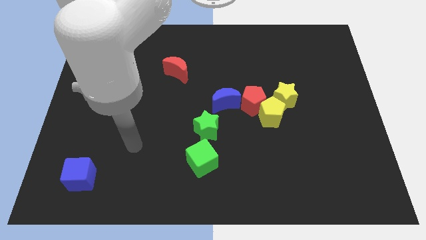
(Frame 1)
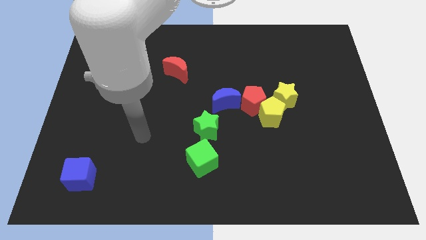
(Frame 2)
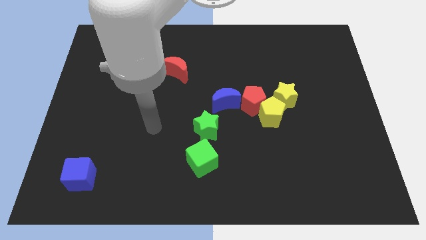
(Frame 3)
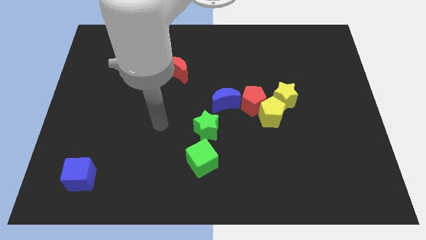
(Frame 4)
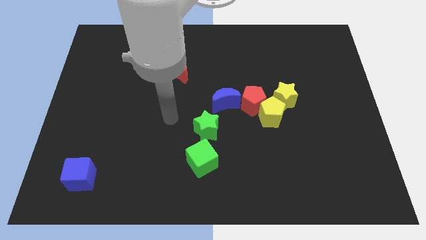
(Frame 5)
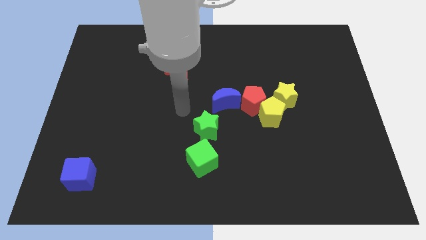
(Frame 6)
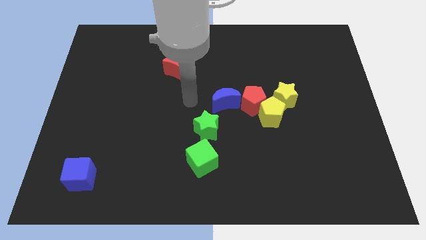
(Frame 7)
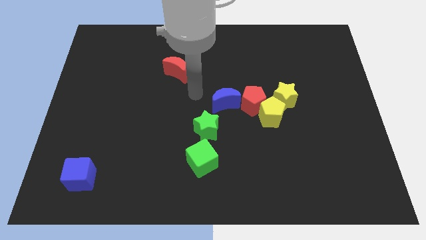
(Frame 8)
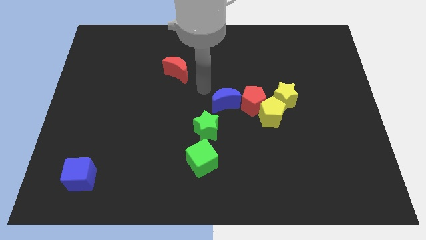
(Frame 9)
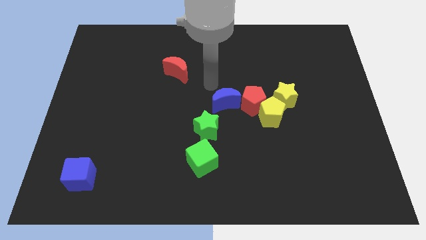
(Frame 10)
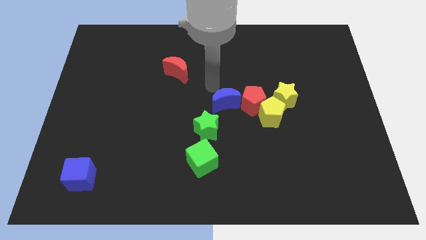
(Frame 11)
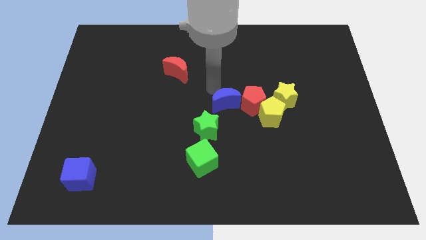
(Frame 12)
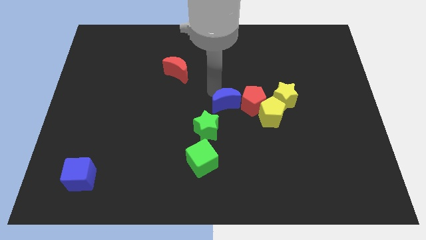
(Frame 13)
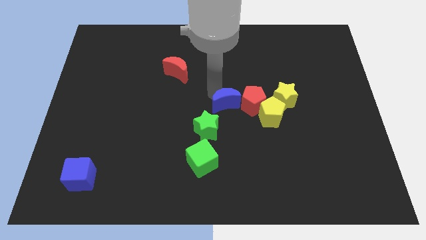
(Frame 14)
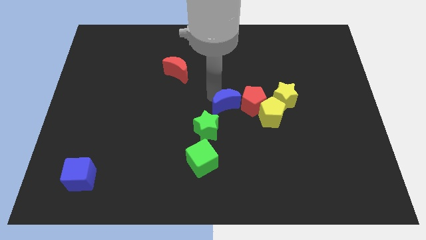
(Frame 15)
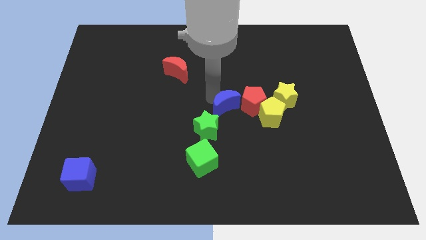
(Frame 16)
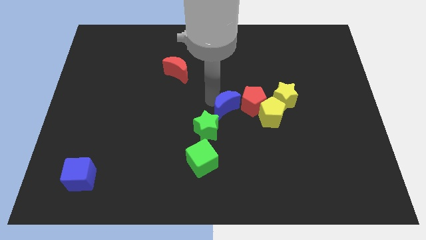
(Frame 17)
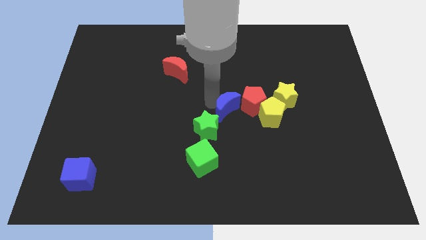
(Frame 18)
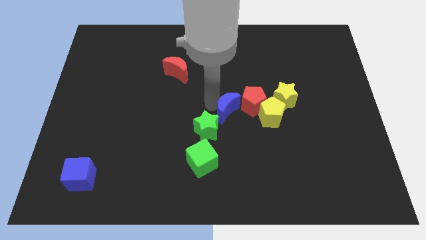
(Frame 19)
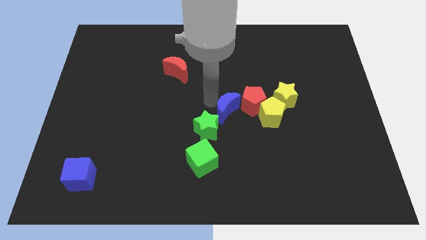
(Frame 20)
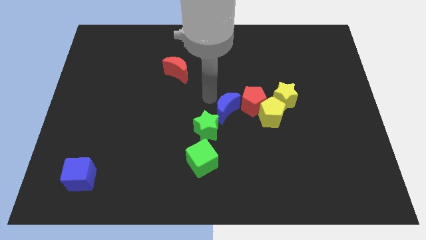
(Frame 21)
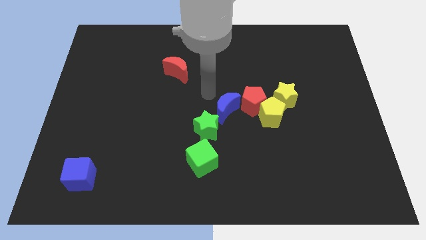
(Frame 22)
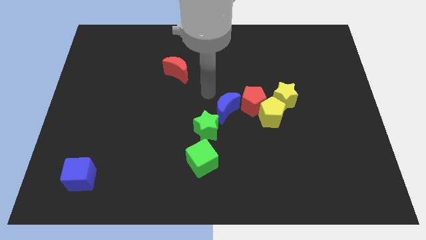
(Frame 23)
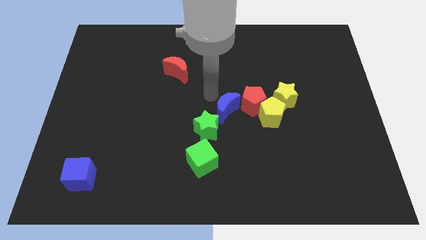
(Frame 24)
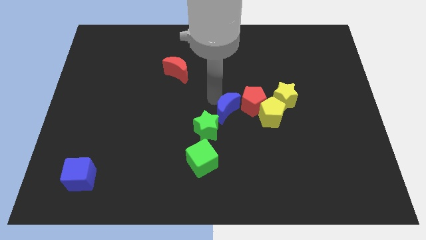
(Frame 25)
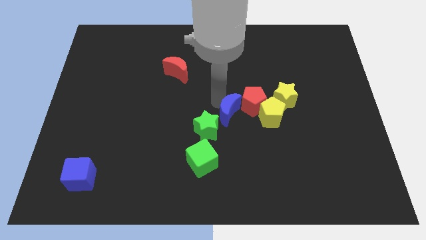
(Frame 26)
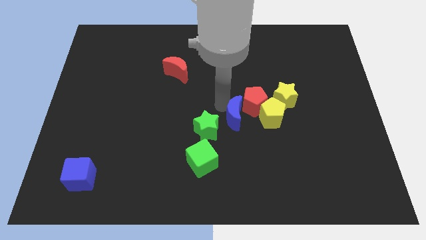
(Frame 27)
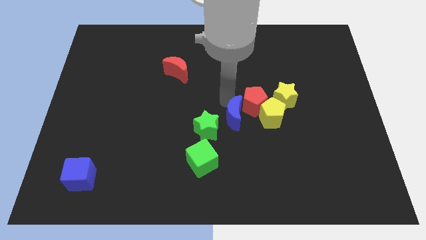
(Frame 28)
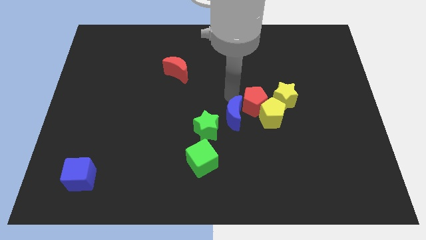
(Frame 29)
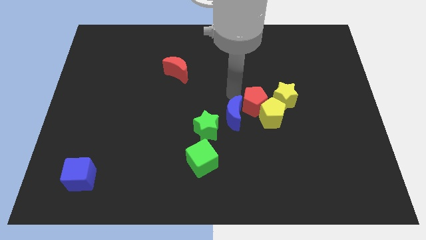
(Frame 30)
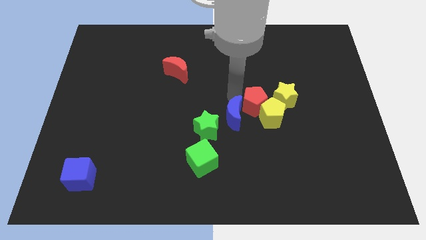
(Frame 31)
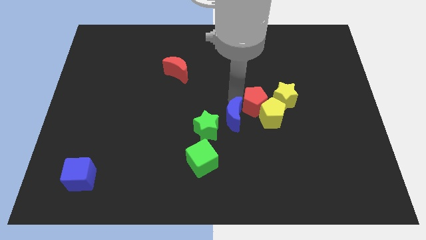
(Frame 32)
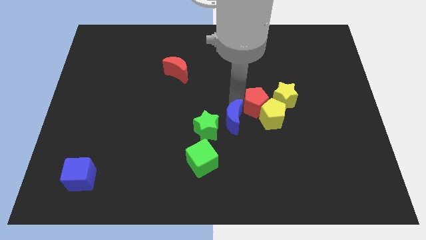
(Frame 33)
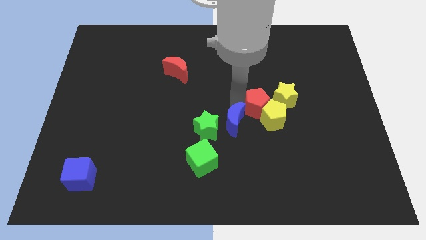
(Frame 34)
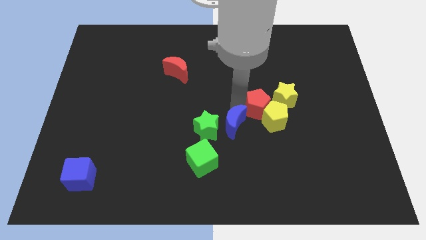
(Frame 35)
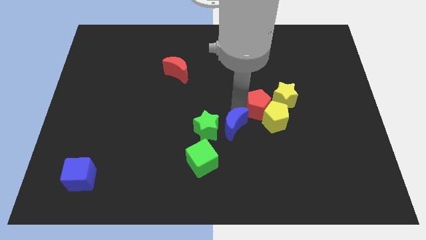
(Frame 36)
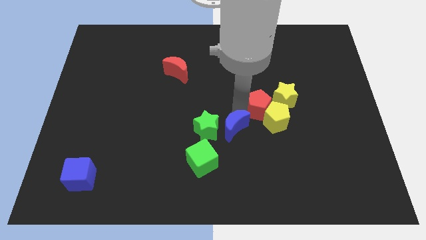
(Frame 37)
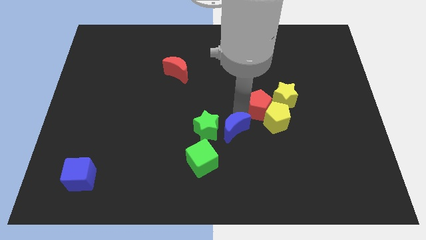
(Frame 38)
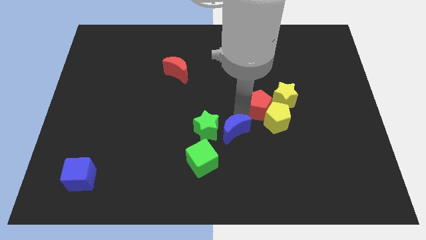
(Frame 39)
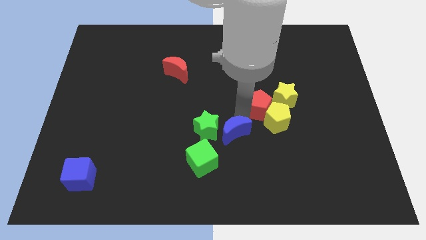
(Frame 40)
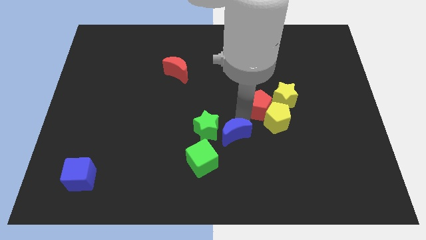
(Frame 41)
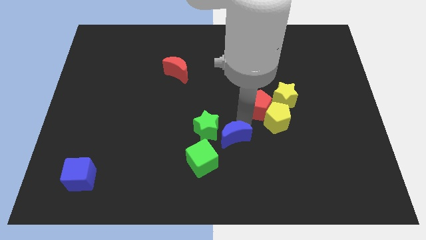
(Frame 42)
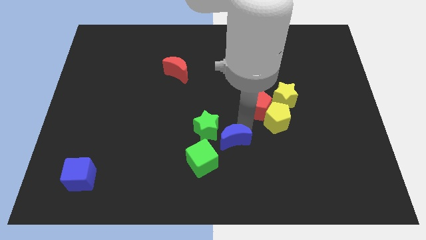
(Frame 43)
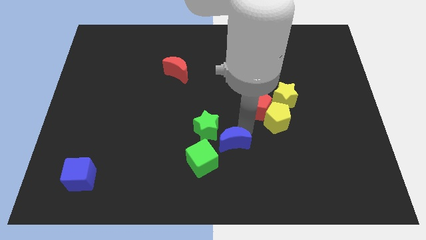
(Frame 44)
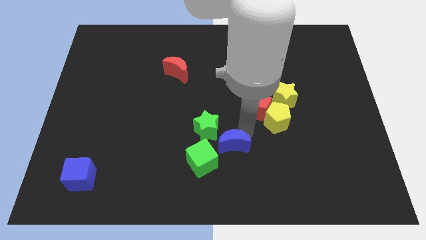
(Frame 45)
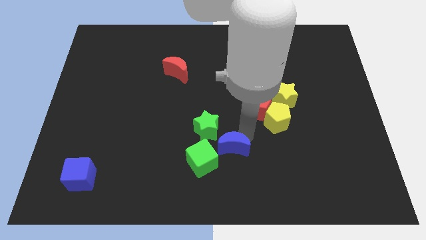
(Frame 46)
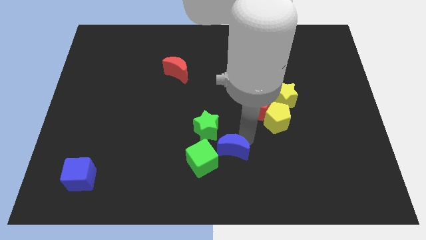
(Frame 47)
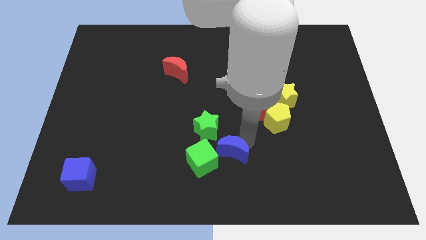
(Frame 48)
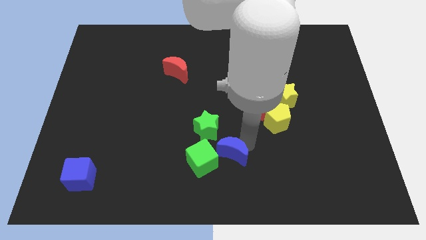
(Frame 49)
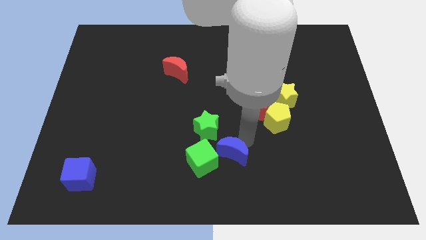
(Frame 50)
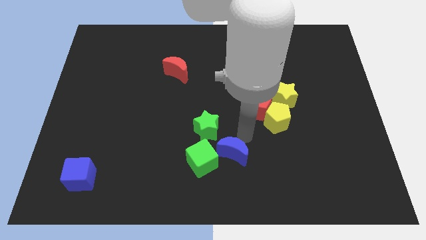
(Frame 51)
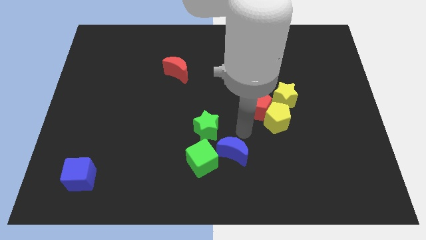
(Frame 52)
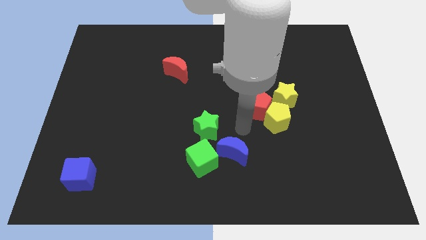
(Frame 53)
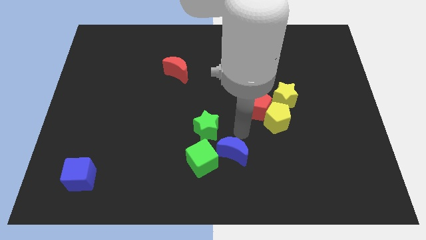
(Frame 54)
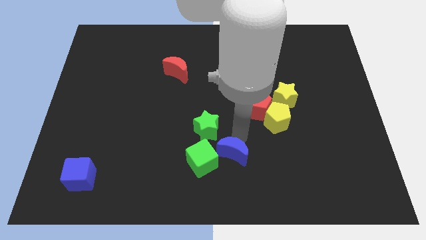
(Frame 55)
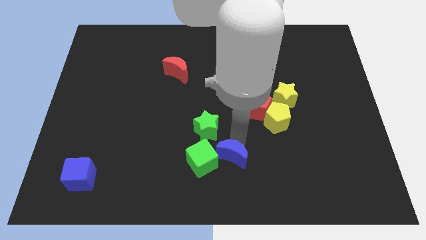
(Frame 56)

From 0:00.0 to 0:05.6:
push the blue moon to the bottom

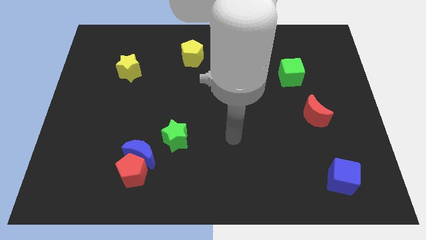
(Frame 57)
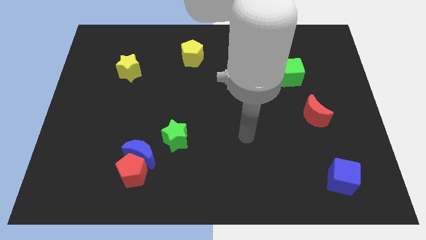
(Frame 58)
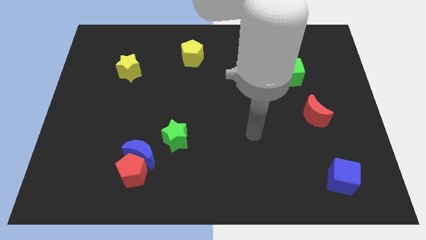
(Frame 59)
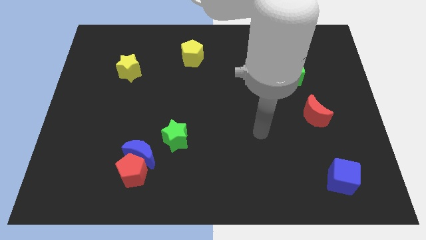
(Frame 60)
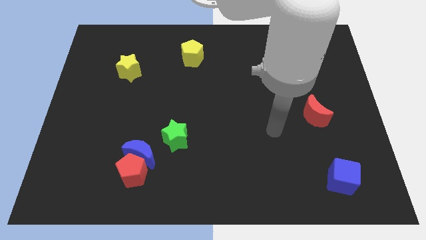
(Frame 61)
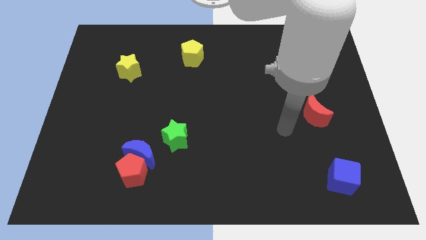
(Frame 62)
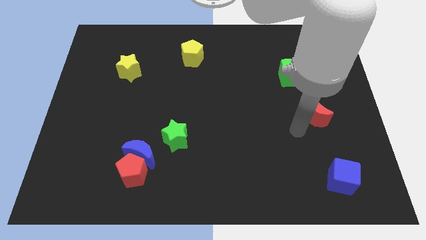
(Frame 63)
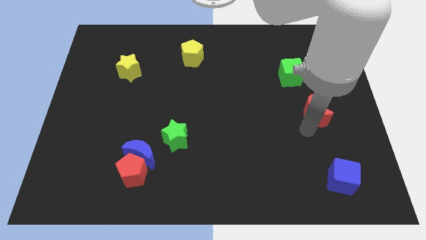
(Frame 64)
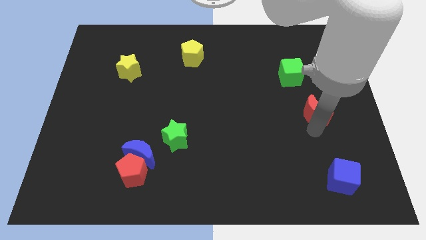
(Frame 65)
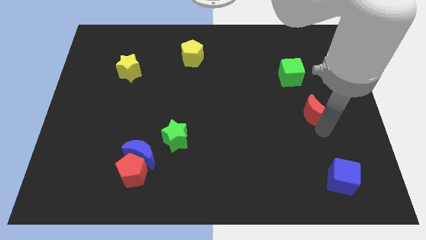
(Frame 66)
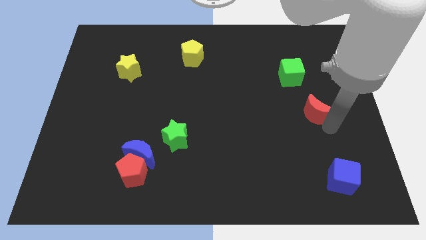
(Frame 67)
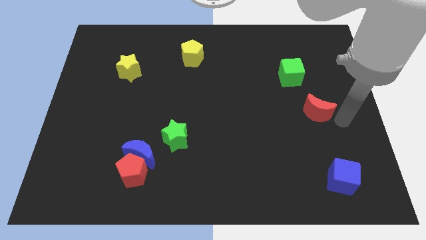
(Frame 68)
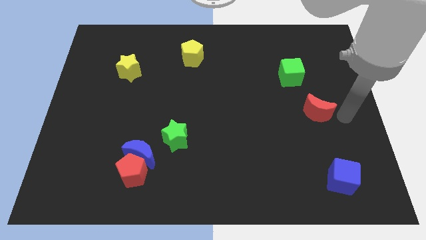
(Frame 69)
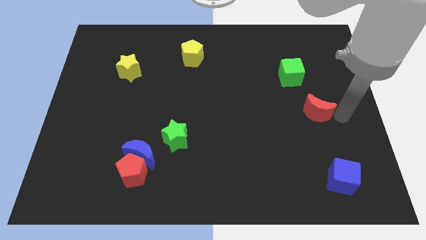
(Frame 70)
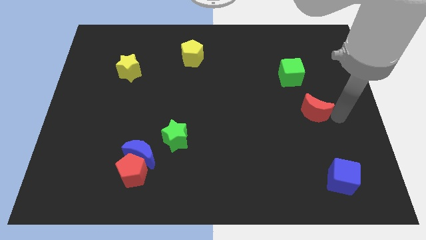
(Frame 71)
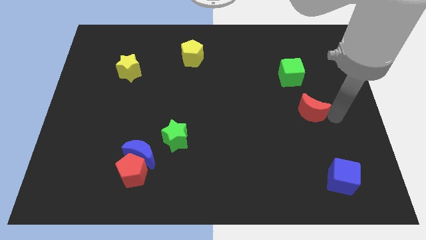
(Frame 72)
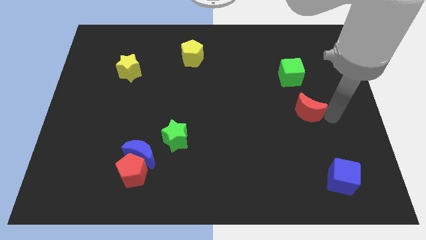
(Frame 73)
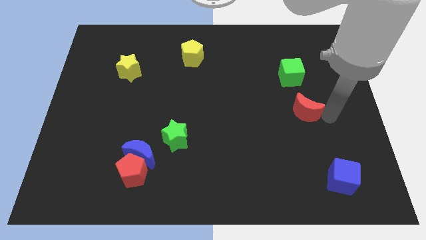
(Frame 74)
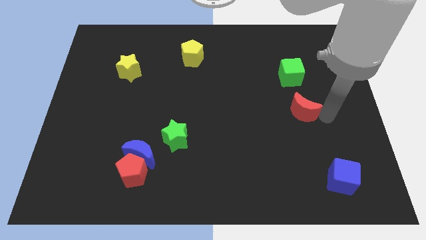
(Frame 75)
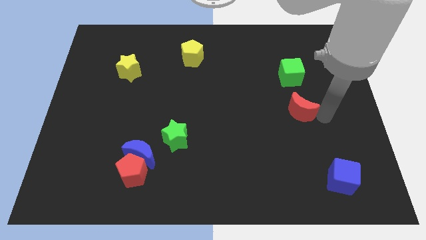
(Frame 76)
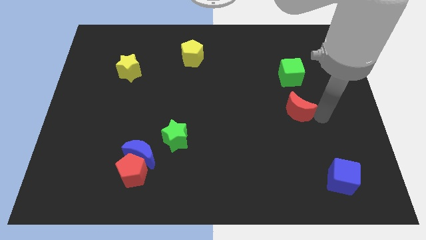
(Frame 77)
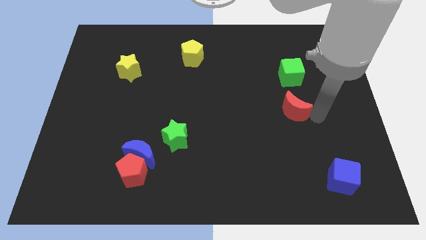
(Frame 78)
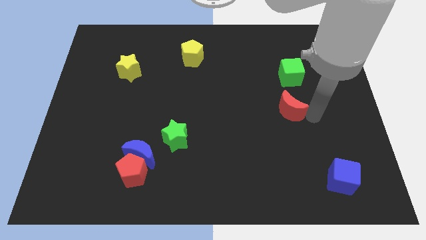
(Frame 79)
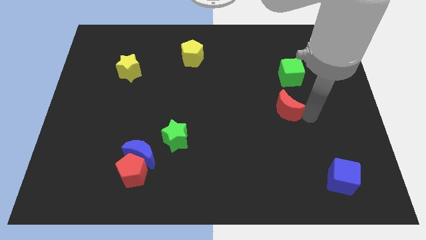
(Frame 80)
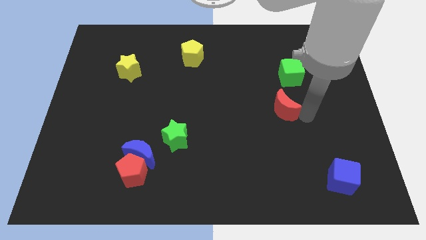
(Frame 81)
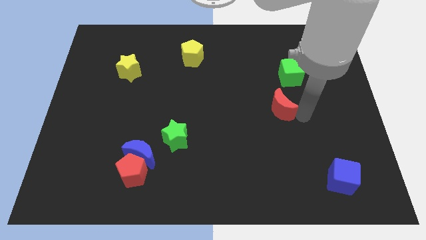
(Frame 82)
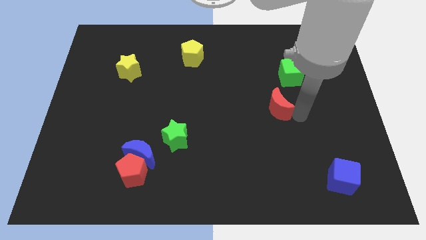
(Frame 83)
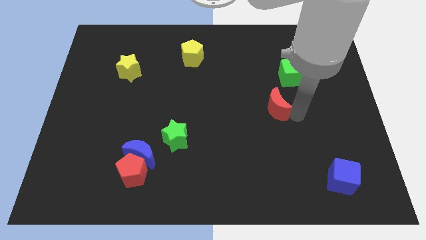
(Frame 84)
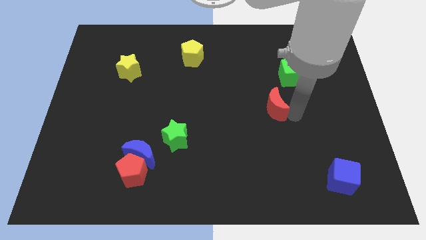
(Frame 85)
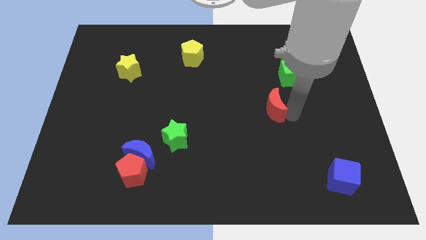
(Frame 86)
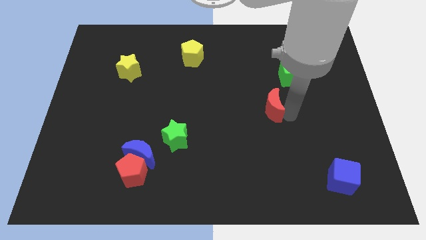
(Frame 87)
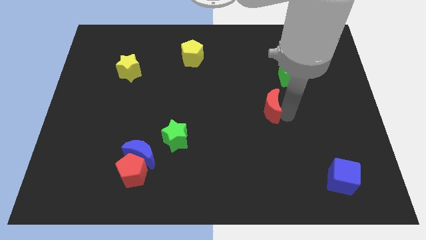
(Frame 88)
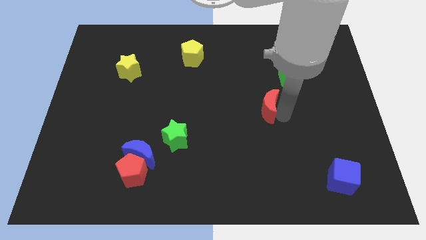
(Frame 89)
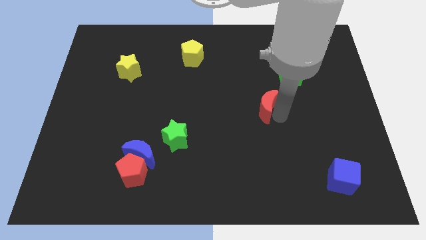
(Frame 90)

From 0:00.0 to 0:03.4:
put the red moon to the middle
